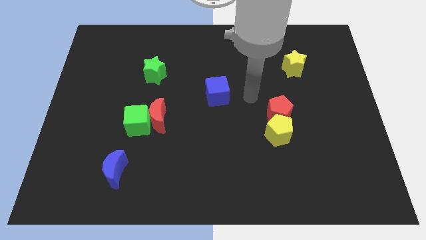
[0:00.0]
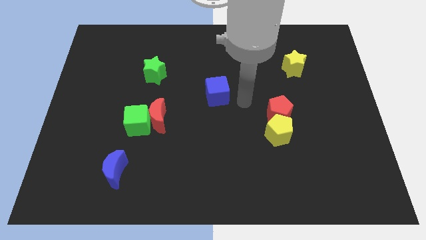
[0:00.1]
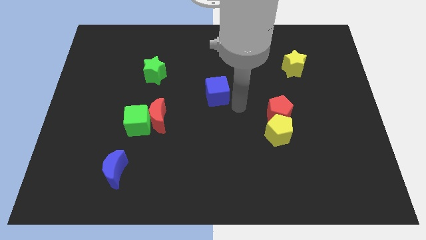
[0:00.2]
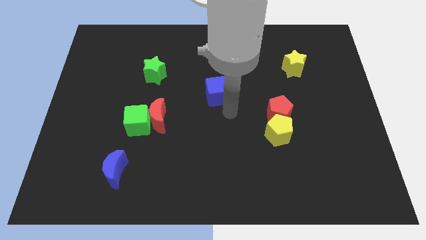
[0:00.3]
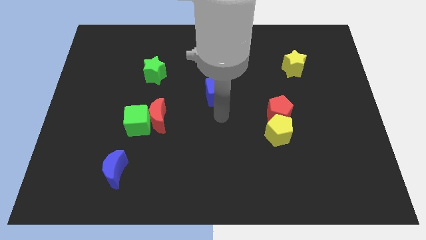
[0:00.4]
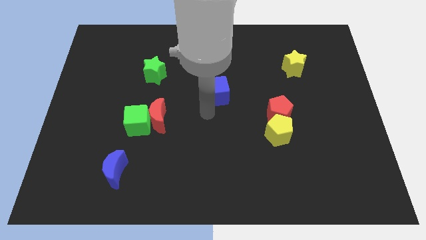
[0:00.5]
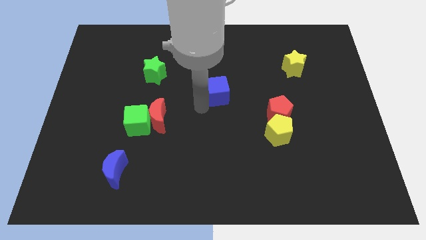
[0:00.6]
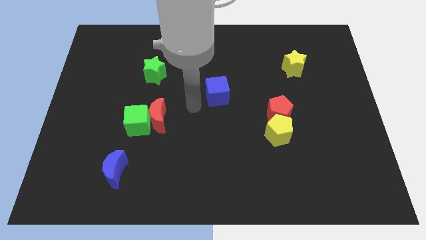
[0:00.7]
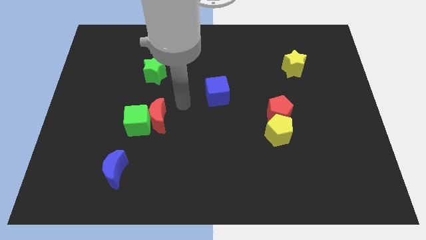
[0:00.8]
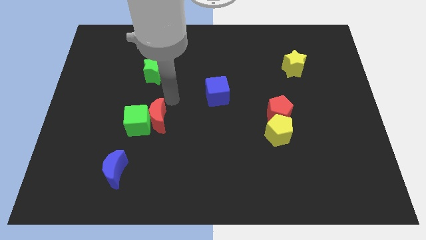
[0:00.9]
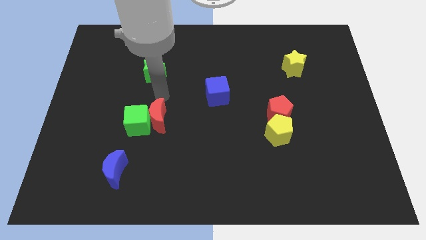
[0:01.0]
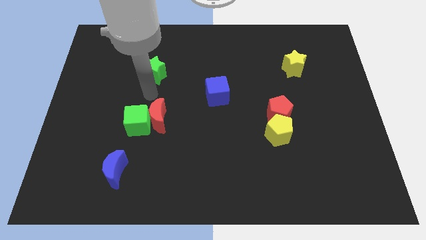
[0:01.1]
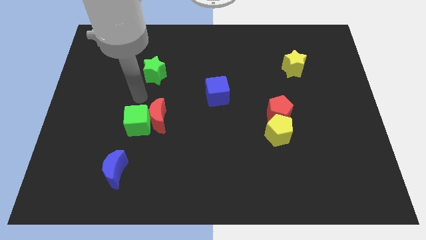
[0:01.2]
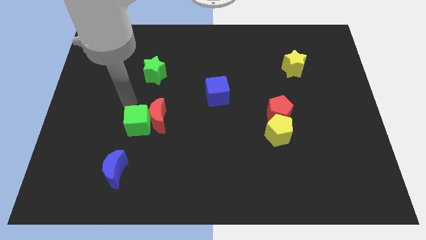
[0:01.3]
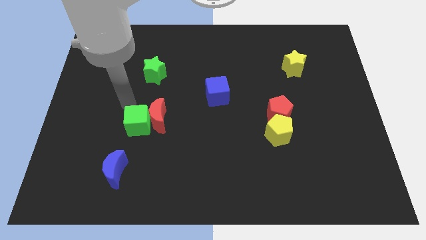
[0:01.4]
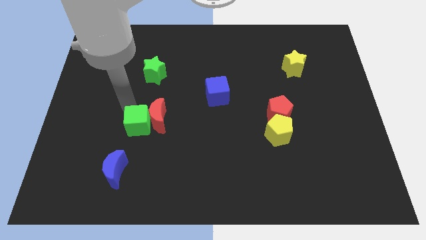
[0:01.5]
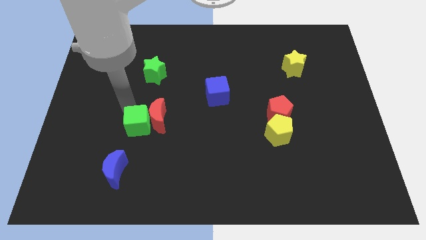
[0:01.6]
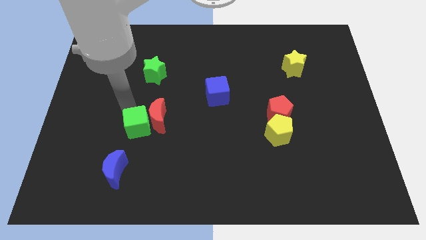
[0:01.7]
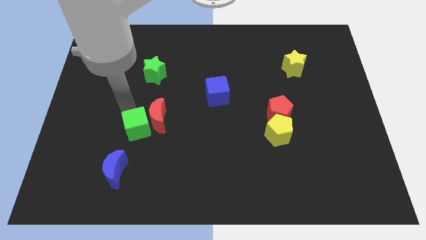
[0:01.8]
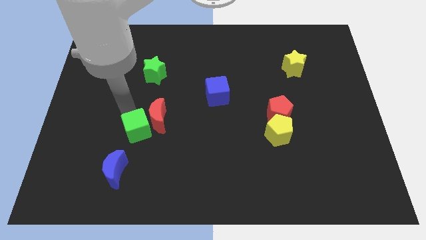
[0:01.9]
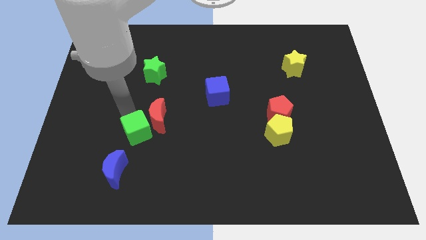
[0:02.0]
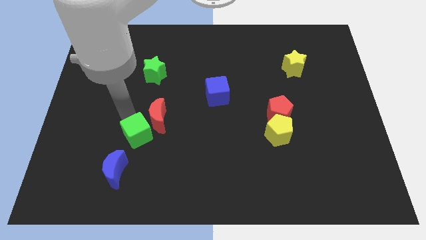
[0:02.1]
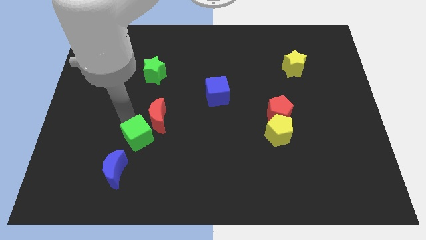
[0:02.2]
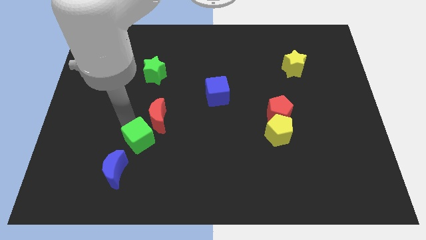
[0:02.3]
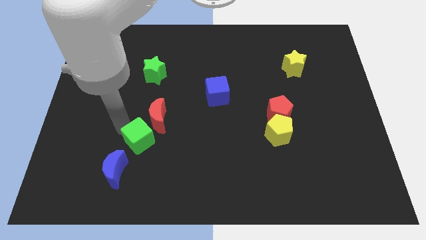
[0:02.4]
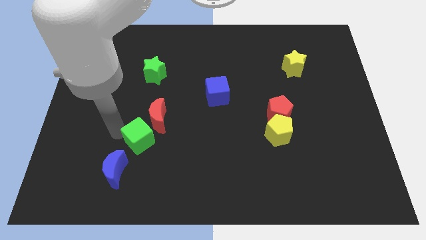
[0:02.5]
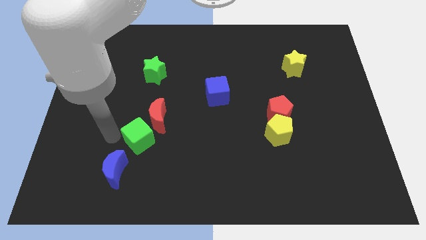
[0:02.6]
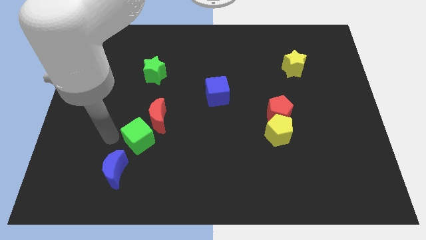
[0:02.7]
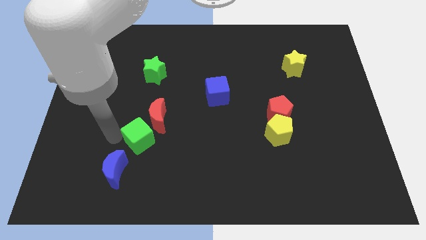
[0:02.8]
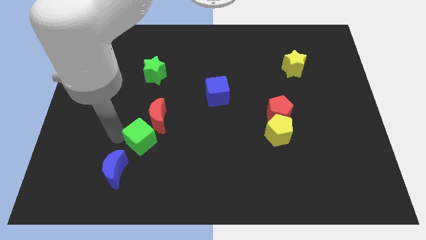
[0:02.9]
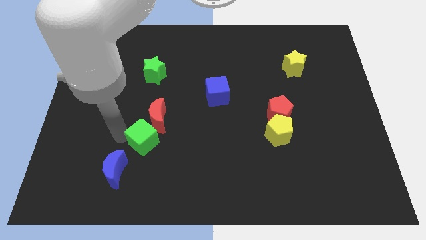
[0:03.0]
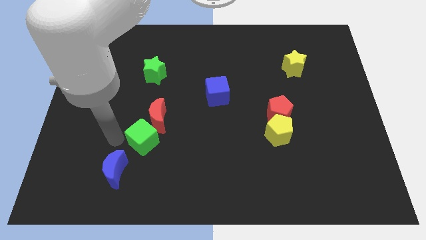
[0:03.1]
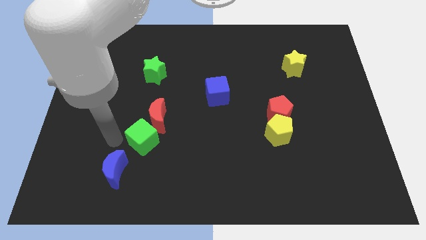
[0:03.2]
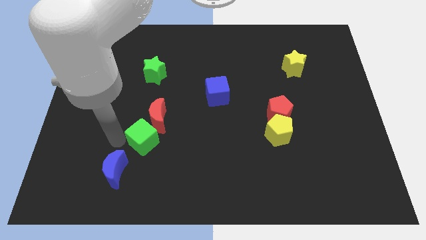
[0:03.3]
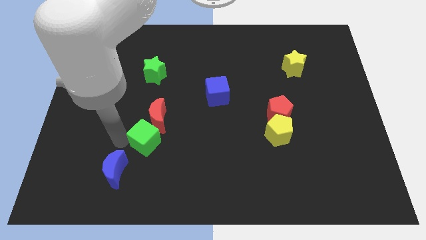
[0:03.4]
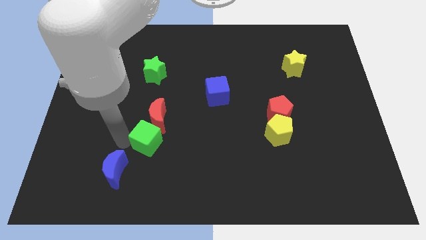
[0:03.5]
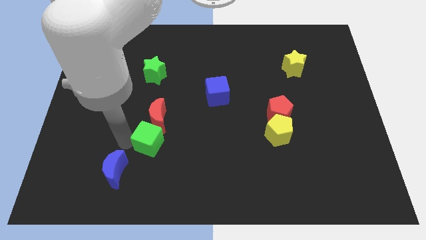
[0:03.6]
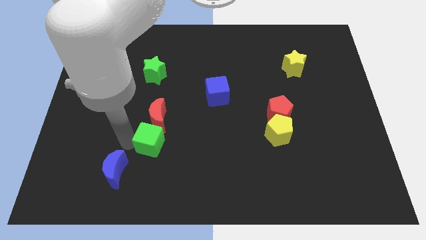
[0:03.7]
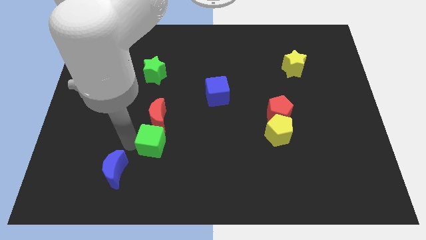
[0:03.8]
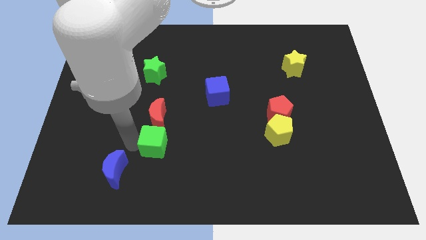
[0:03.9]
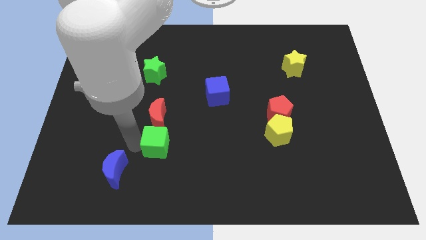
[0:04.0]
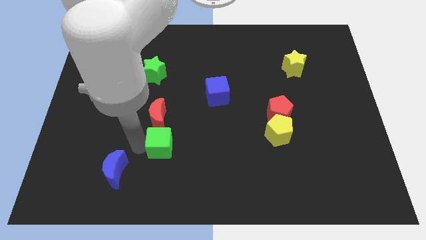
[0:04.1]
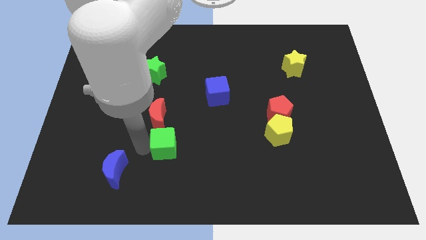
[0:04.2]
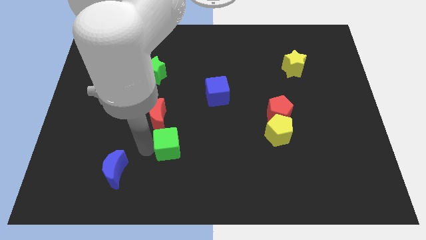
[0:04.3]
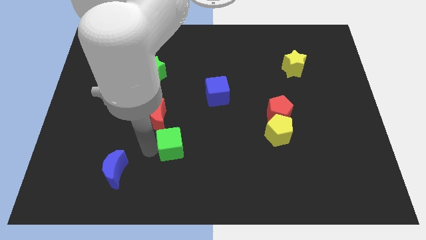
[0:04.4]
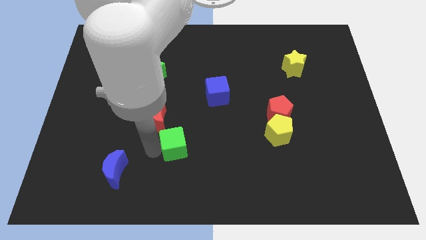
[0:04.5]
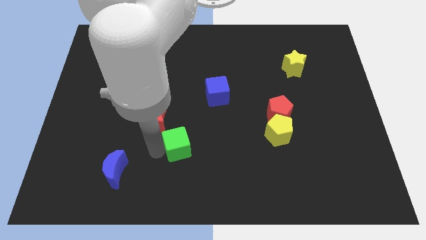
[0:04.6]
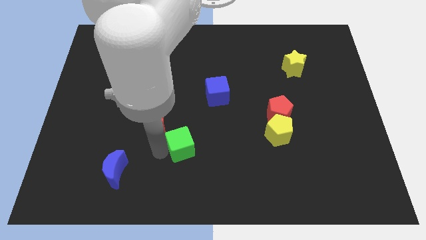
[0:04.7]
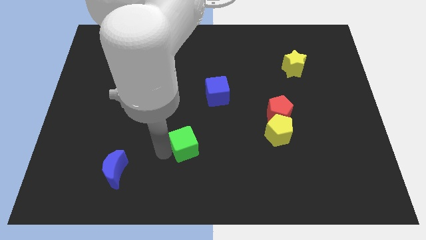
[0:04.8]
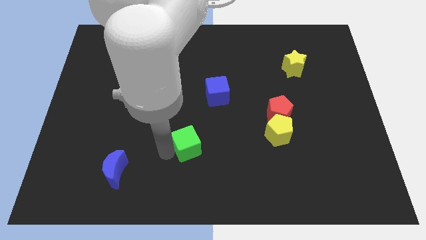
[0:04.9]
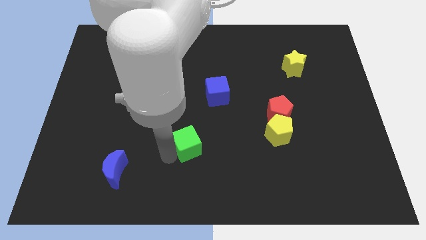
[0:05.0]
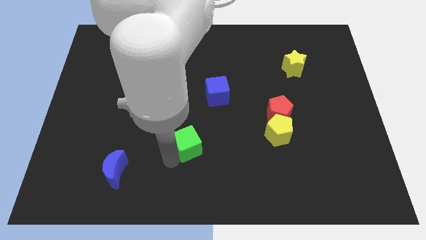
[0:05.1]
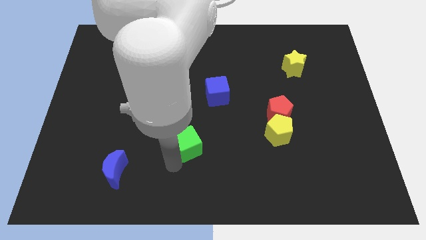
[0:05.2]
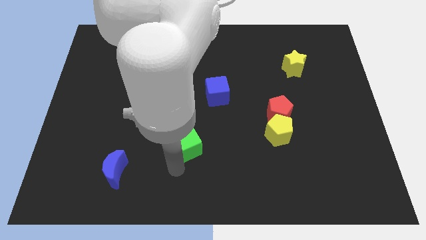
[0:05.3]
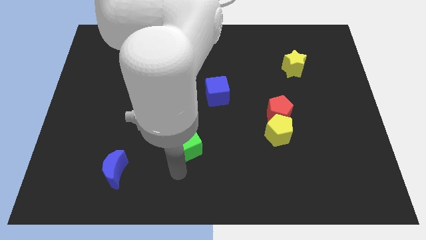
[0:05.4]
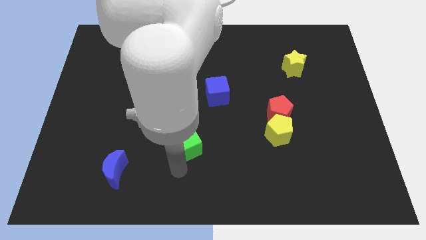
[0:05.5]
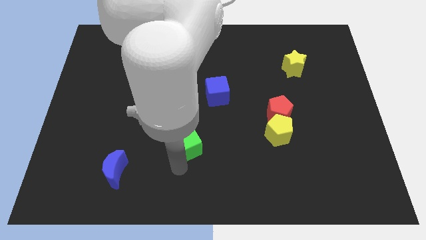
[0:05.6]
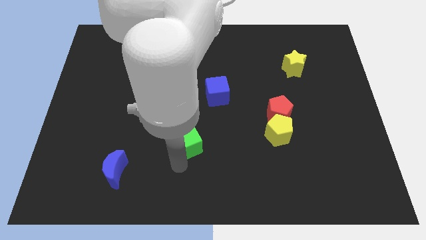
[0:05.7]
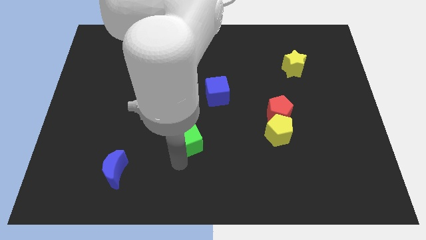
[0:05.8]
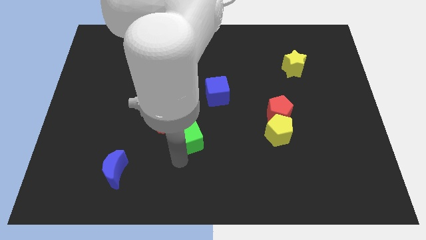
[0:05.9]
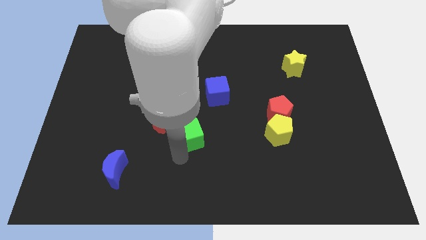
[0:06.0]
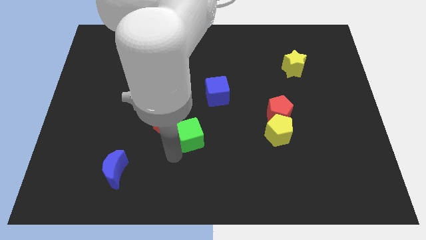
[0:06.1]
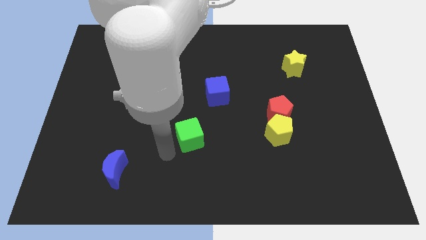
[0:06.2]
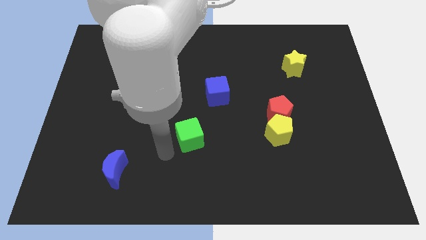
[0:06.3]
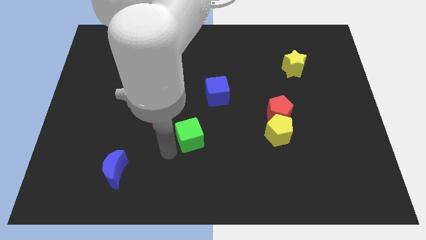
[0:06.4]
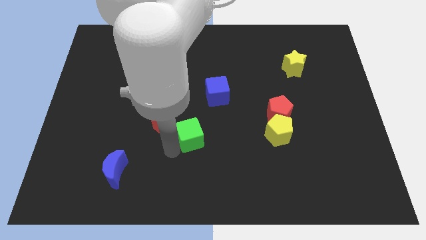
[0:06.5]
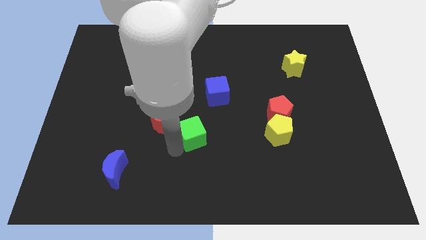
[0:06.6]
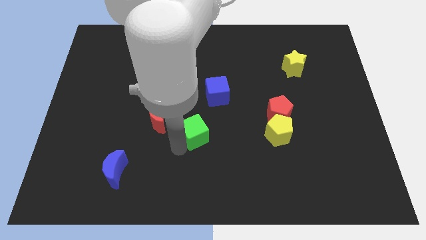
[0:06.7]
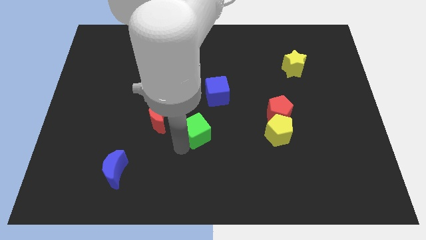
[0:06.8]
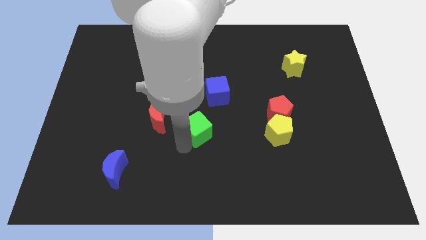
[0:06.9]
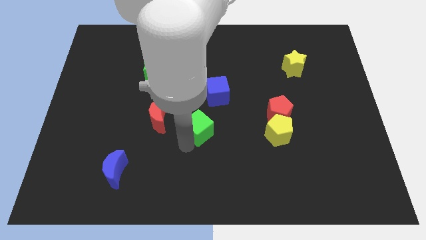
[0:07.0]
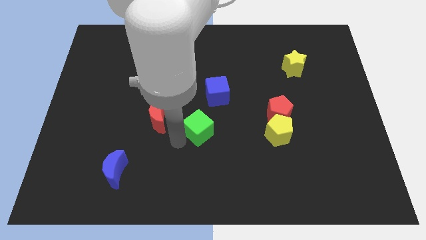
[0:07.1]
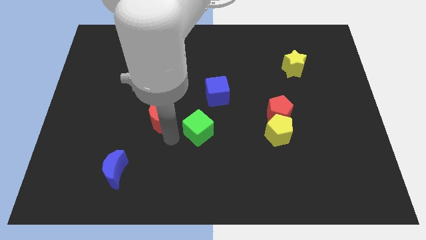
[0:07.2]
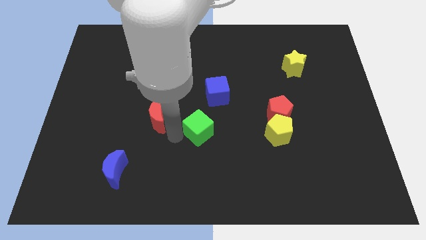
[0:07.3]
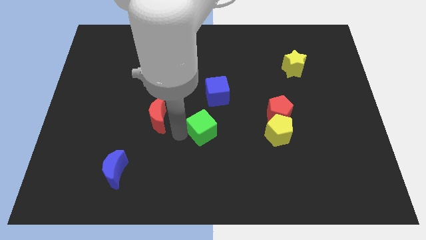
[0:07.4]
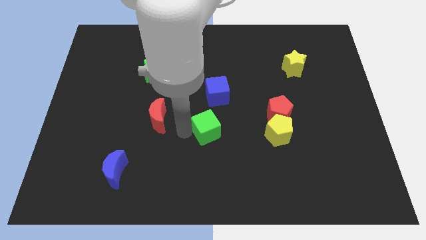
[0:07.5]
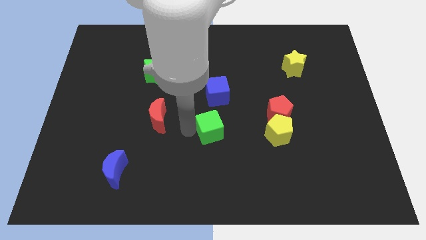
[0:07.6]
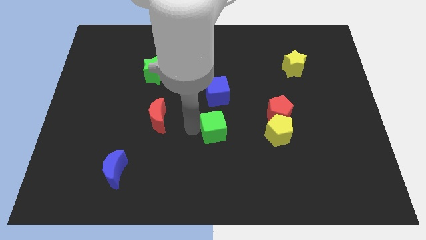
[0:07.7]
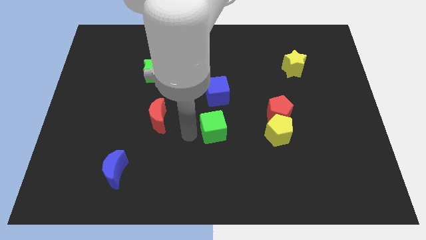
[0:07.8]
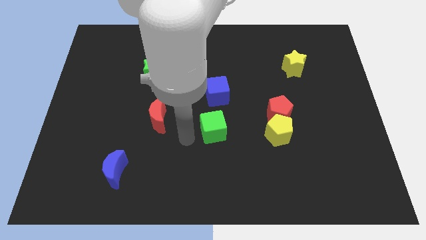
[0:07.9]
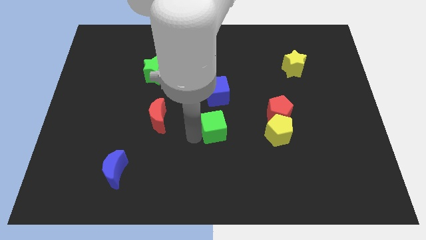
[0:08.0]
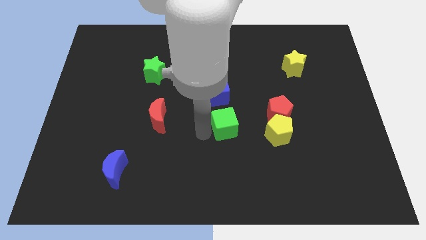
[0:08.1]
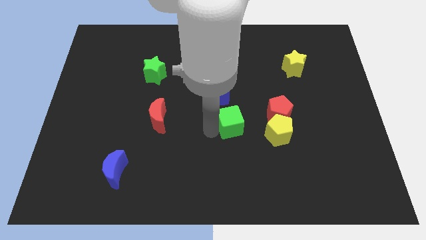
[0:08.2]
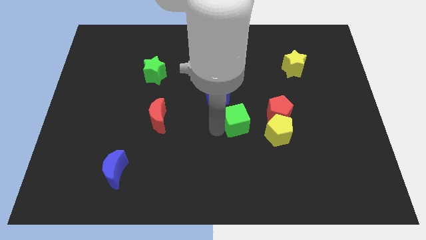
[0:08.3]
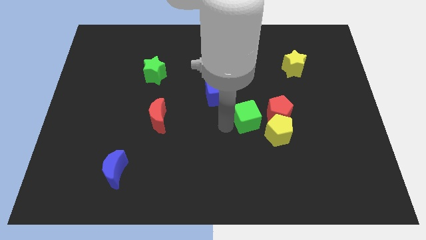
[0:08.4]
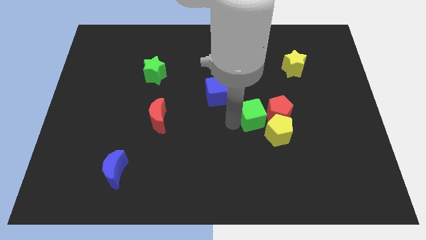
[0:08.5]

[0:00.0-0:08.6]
put the green cube to the red pentagon
